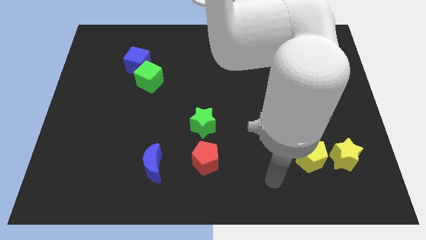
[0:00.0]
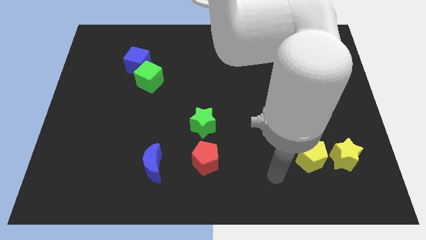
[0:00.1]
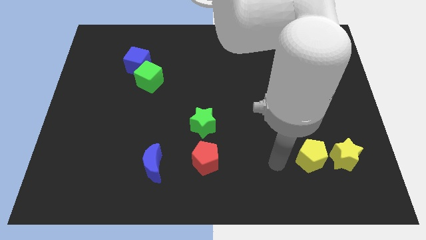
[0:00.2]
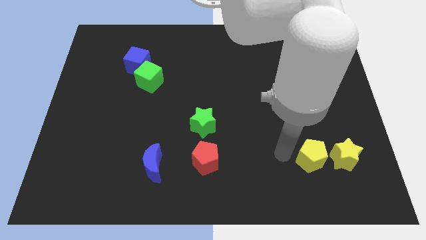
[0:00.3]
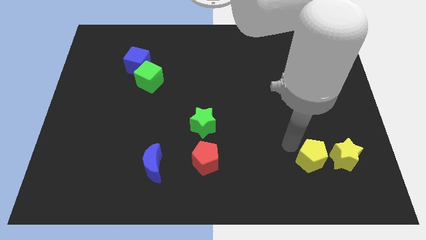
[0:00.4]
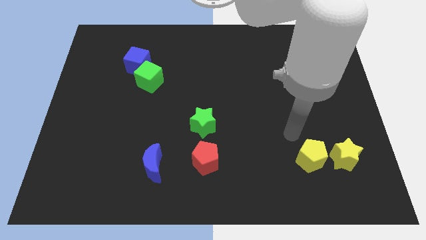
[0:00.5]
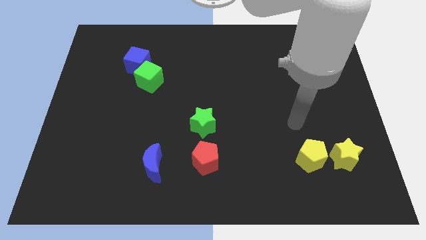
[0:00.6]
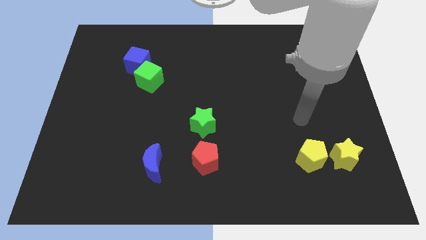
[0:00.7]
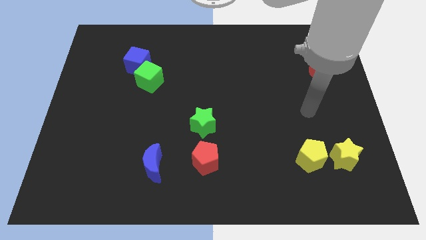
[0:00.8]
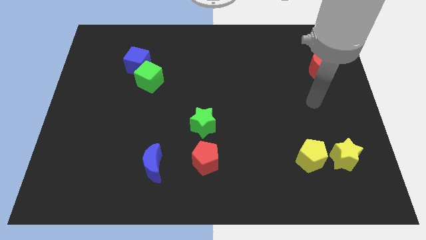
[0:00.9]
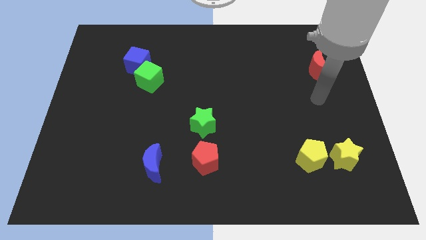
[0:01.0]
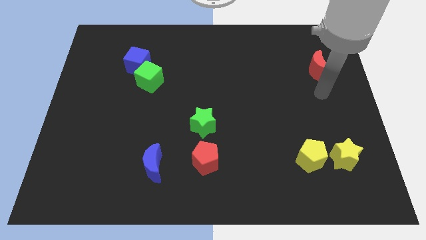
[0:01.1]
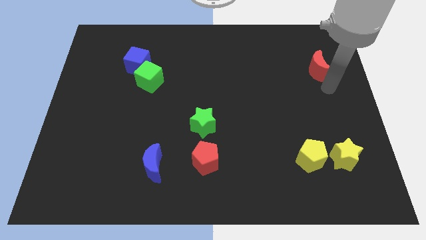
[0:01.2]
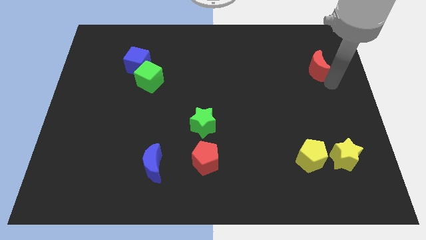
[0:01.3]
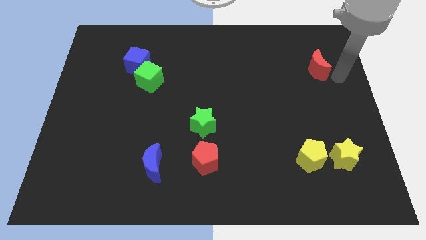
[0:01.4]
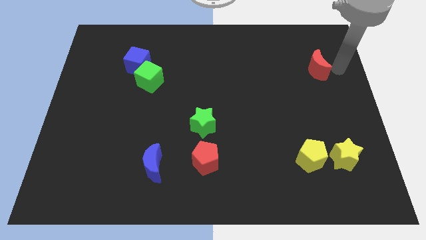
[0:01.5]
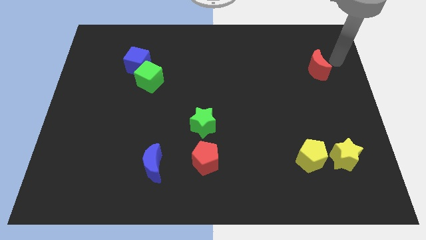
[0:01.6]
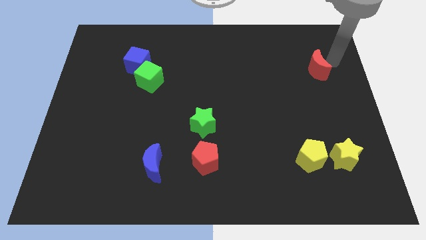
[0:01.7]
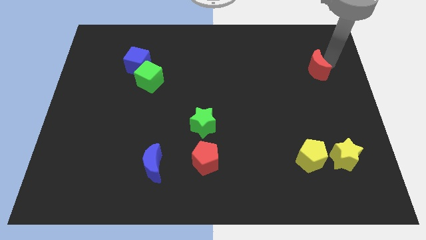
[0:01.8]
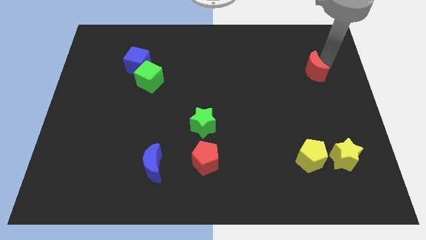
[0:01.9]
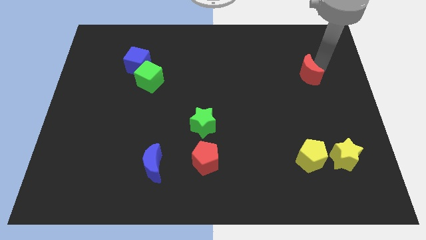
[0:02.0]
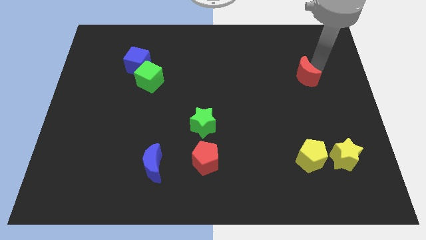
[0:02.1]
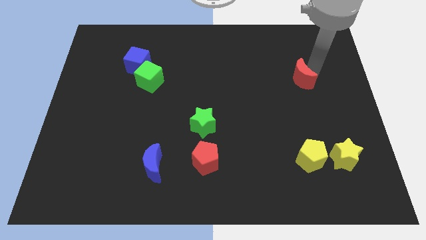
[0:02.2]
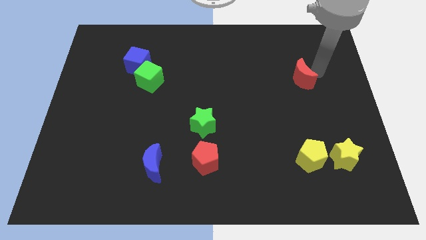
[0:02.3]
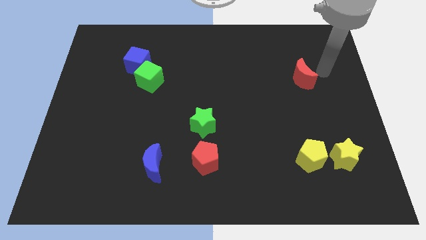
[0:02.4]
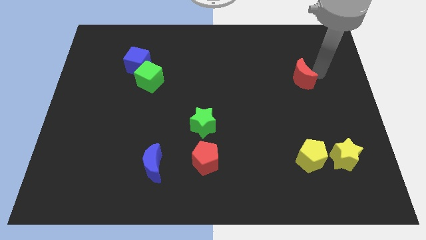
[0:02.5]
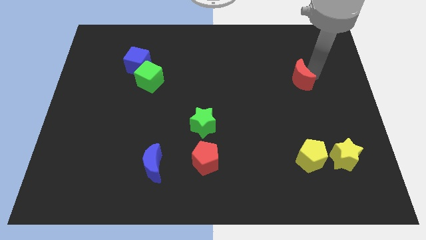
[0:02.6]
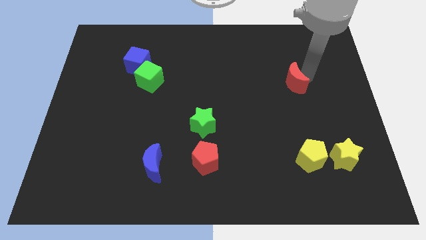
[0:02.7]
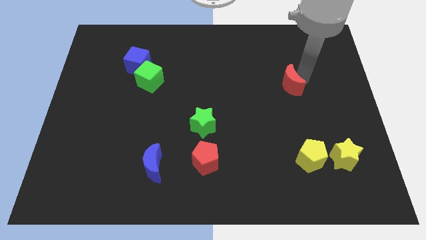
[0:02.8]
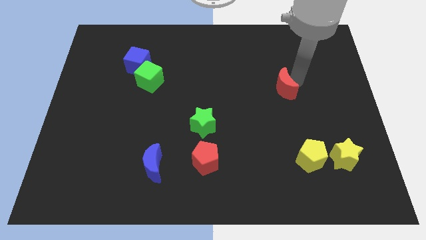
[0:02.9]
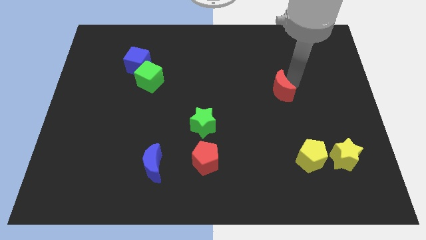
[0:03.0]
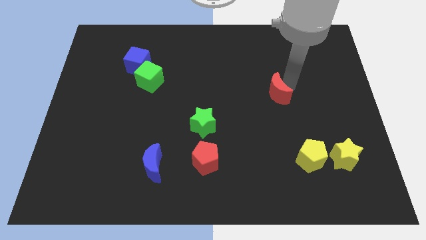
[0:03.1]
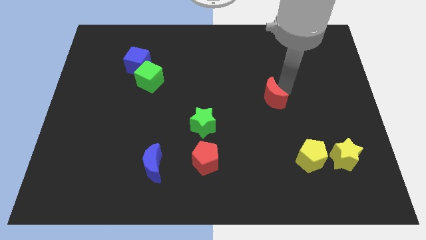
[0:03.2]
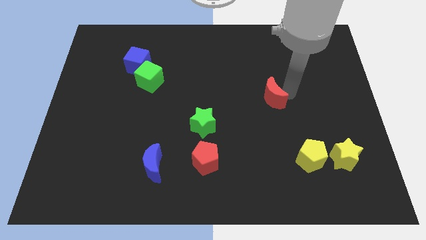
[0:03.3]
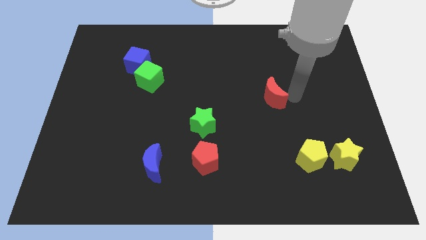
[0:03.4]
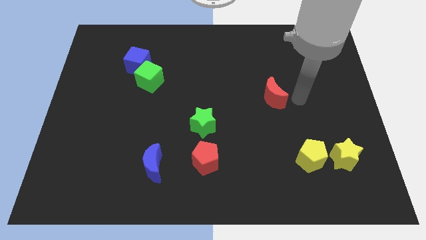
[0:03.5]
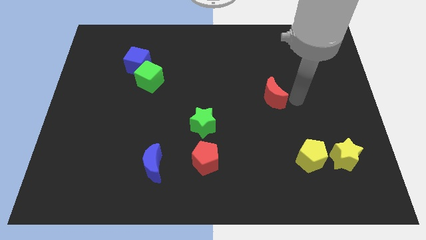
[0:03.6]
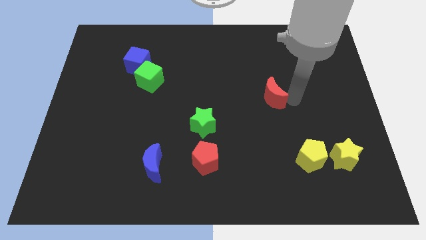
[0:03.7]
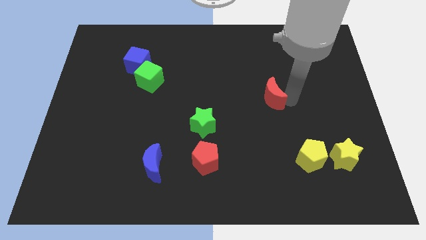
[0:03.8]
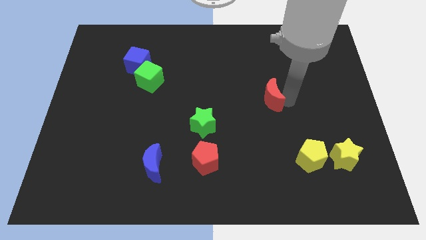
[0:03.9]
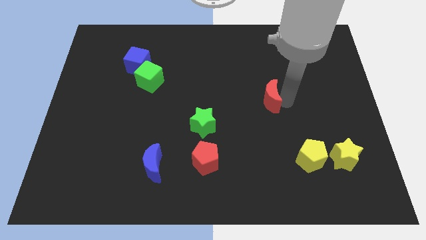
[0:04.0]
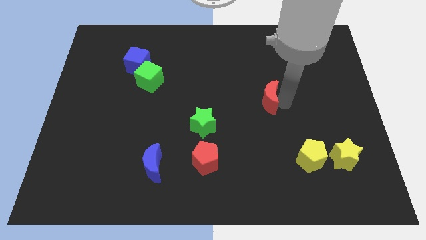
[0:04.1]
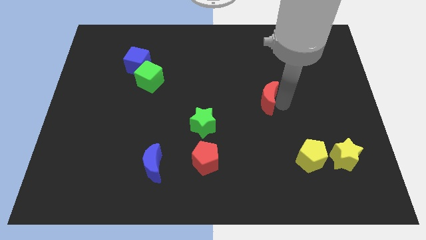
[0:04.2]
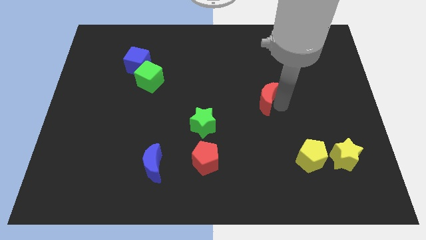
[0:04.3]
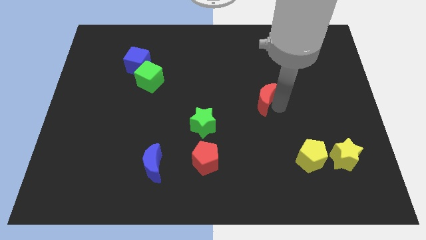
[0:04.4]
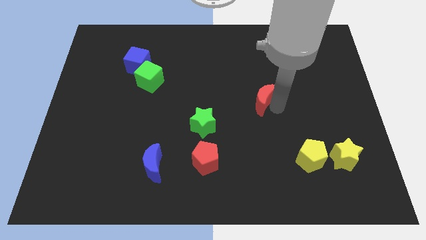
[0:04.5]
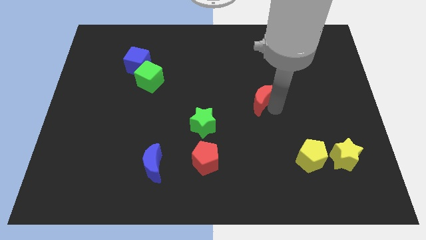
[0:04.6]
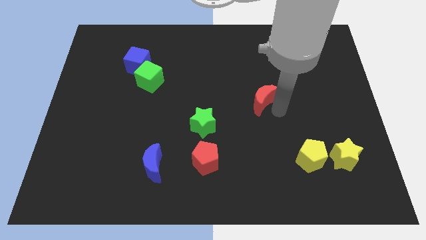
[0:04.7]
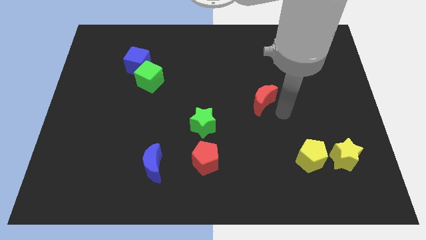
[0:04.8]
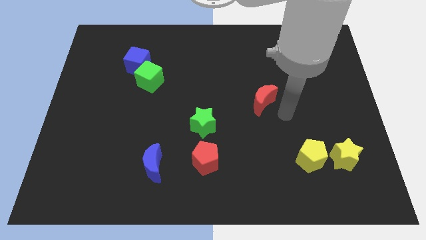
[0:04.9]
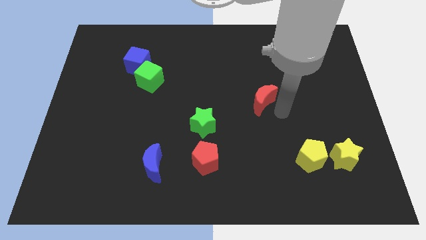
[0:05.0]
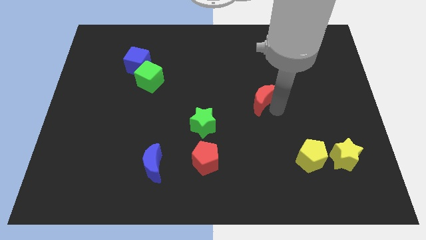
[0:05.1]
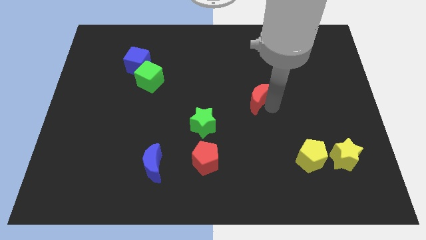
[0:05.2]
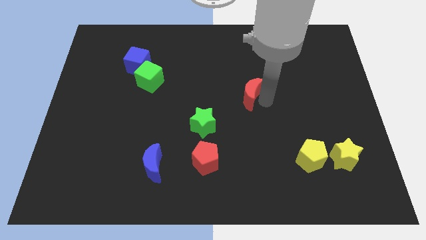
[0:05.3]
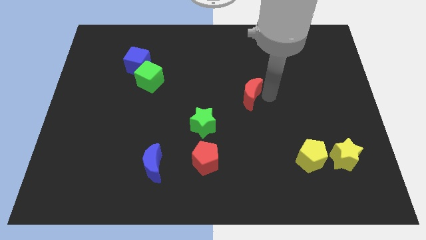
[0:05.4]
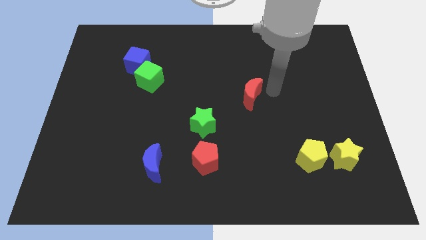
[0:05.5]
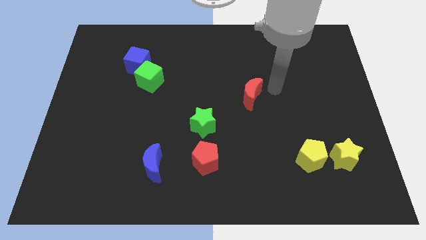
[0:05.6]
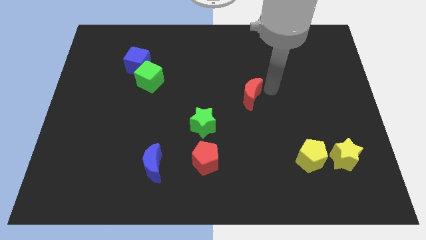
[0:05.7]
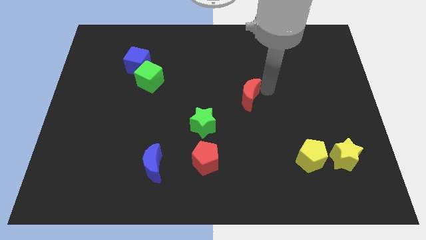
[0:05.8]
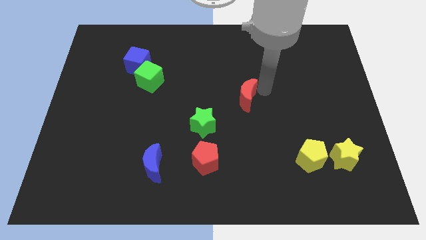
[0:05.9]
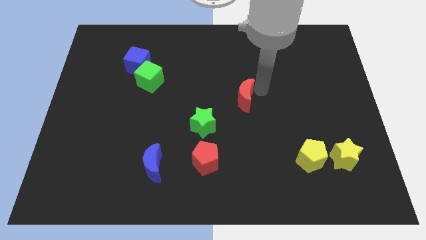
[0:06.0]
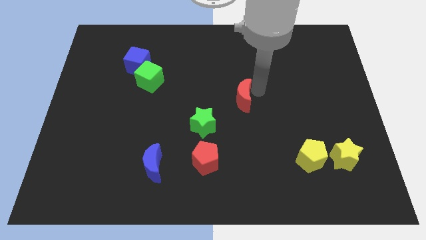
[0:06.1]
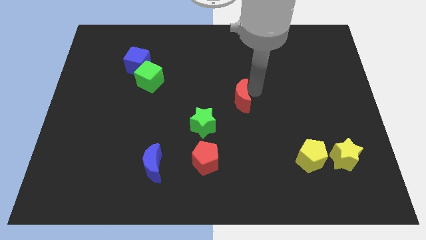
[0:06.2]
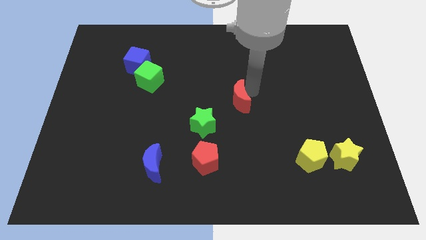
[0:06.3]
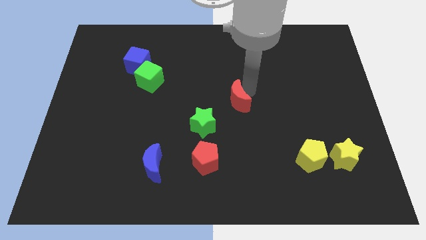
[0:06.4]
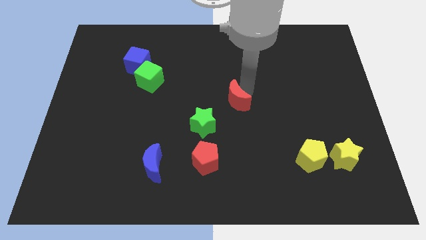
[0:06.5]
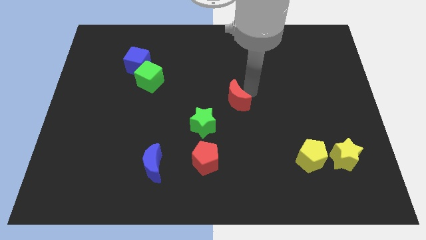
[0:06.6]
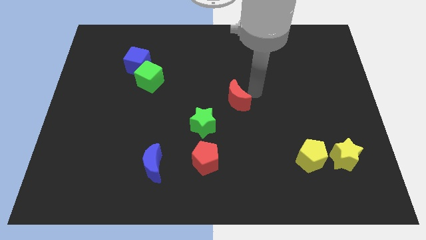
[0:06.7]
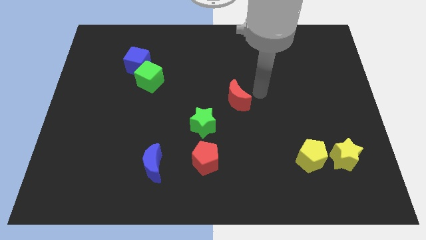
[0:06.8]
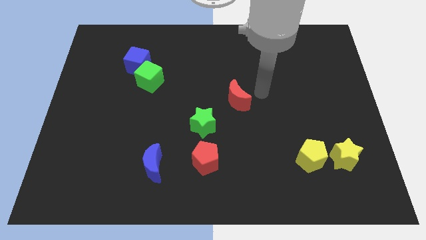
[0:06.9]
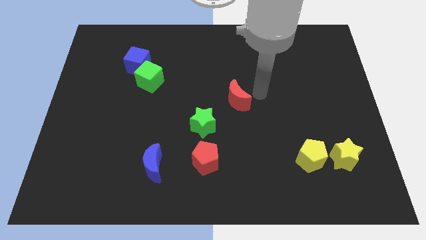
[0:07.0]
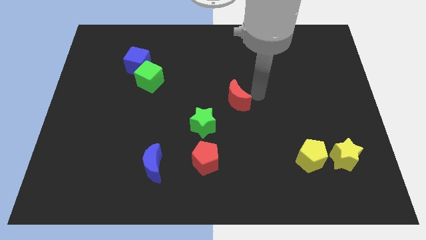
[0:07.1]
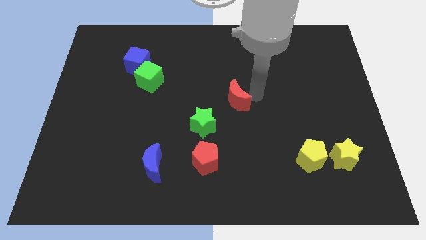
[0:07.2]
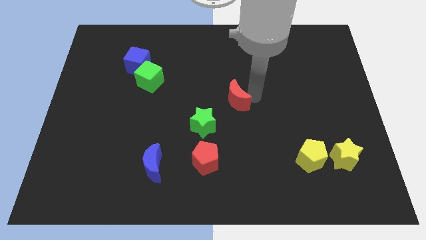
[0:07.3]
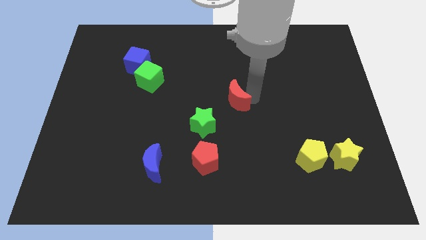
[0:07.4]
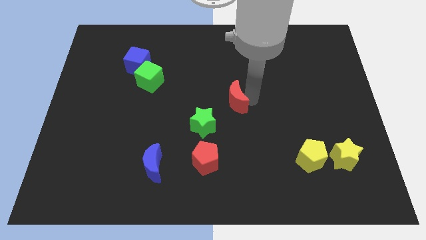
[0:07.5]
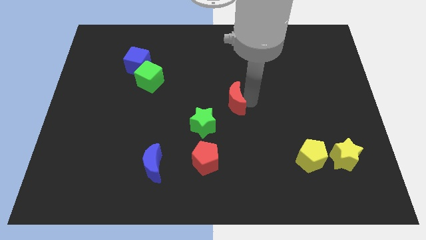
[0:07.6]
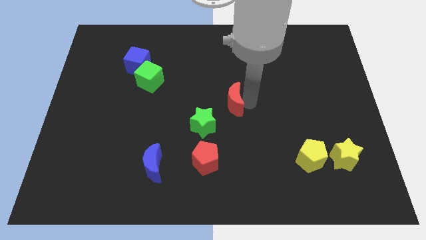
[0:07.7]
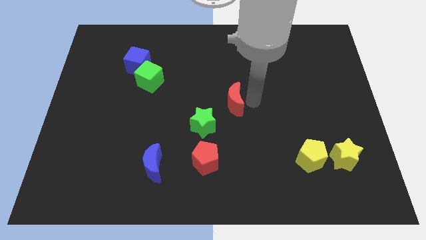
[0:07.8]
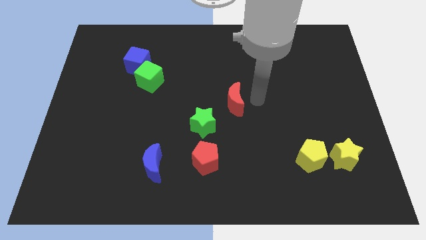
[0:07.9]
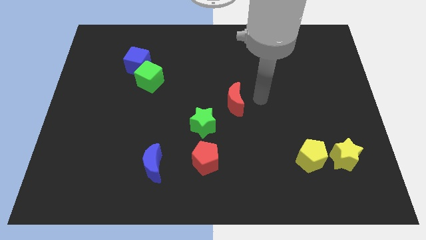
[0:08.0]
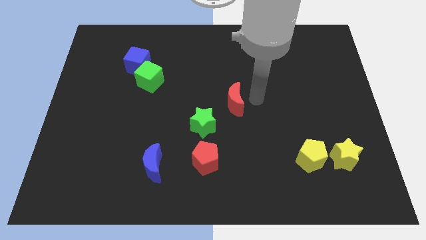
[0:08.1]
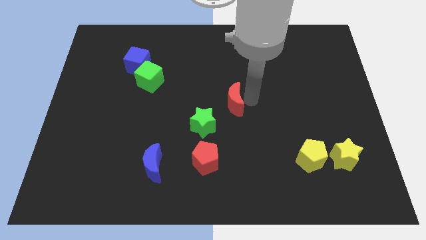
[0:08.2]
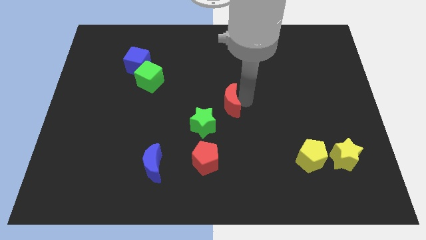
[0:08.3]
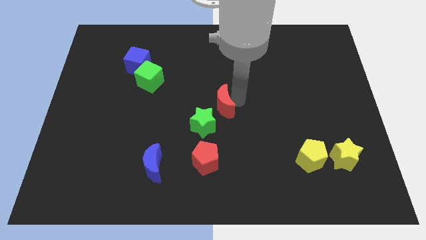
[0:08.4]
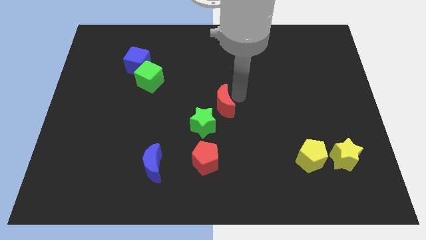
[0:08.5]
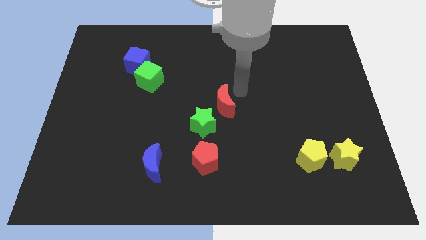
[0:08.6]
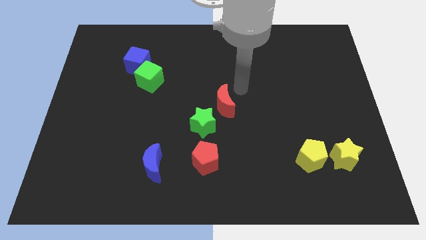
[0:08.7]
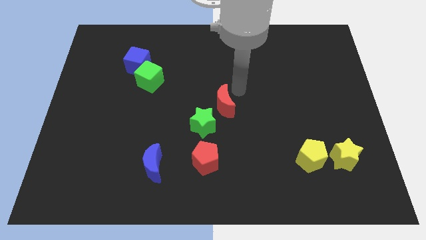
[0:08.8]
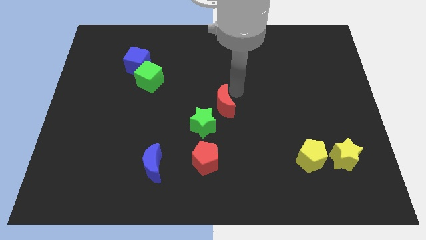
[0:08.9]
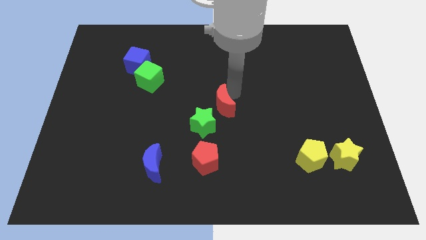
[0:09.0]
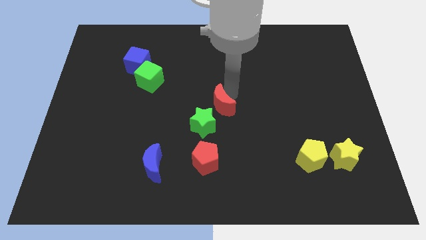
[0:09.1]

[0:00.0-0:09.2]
put the red moon above the red pentagon
